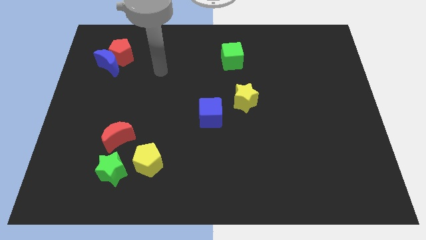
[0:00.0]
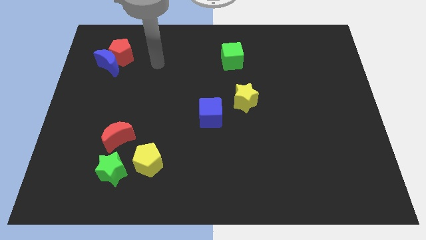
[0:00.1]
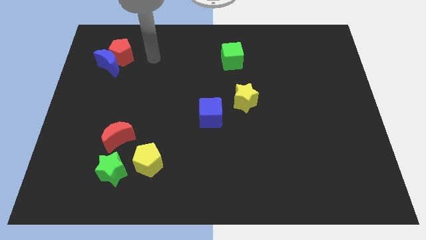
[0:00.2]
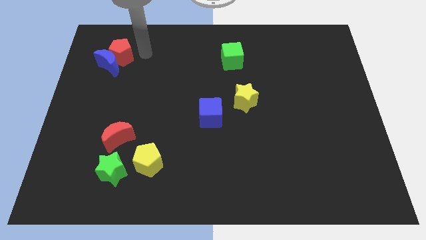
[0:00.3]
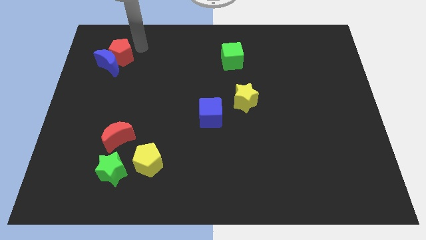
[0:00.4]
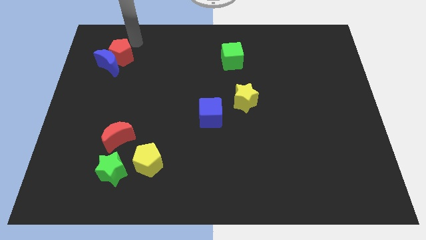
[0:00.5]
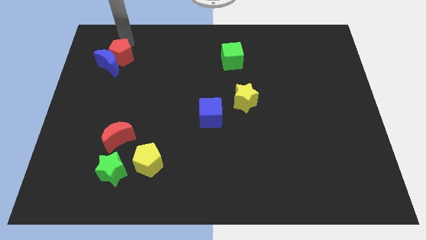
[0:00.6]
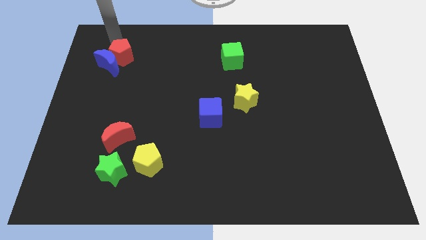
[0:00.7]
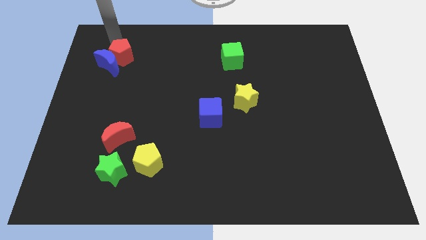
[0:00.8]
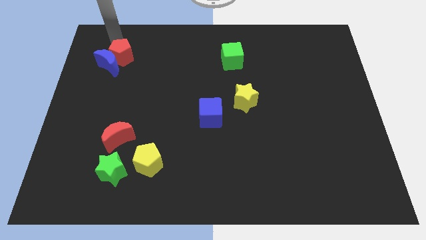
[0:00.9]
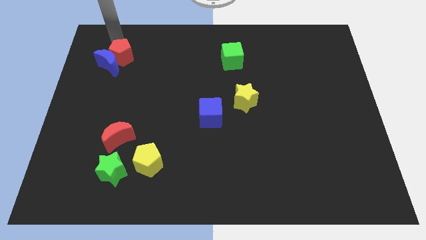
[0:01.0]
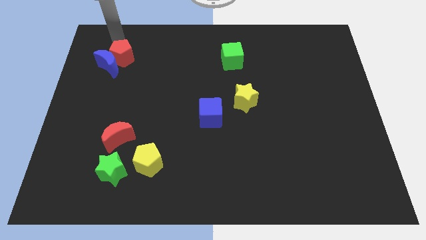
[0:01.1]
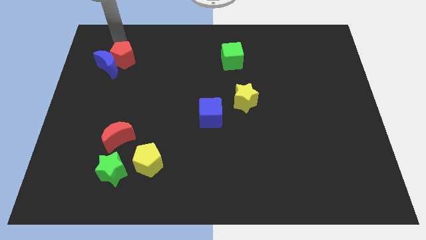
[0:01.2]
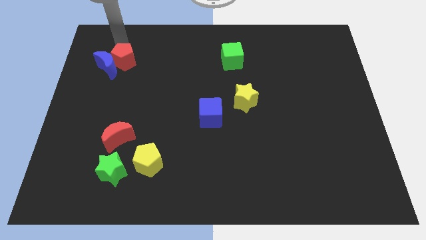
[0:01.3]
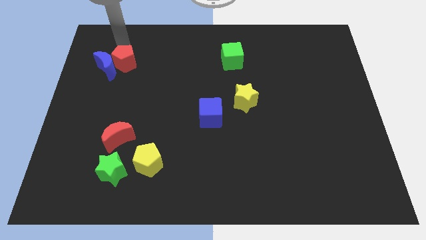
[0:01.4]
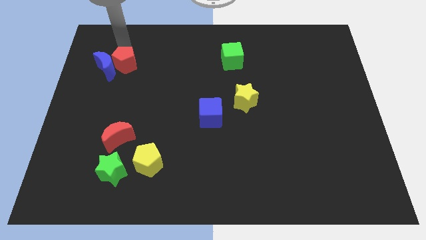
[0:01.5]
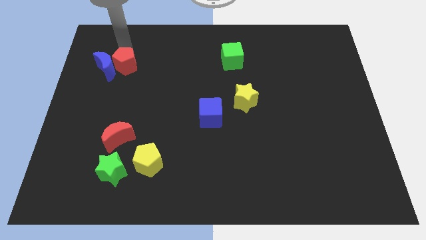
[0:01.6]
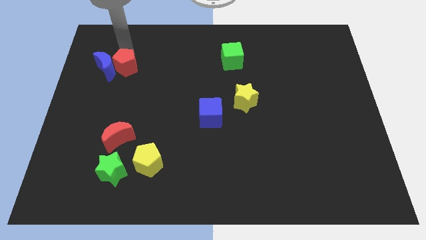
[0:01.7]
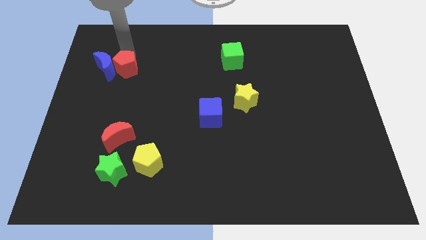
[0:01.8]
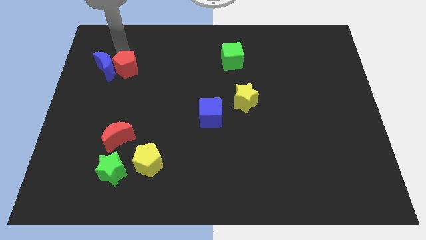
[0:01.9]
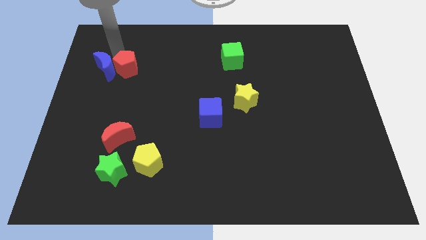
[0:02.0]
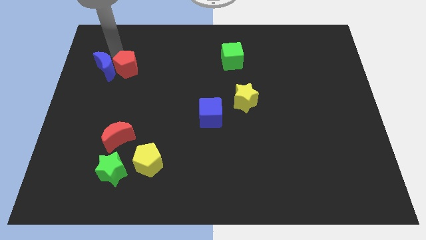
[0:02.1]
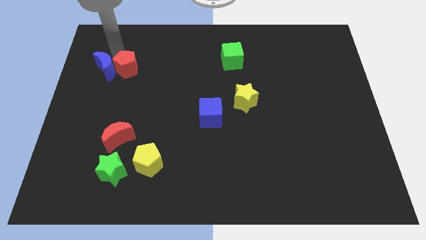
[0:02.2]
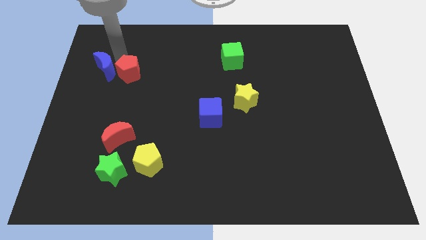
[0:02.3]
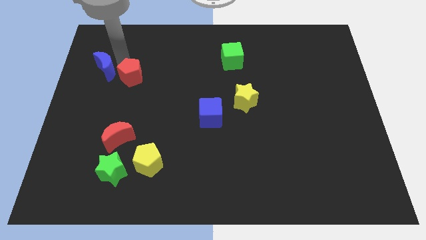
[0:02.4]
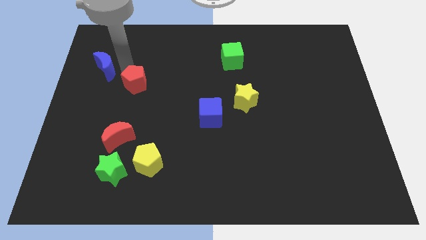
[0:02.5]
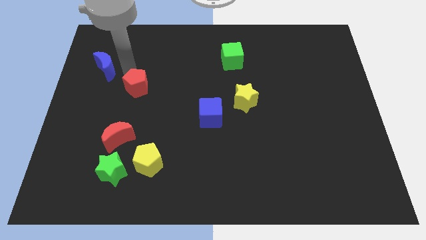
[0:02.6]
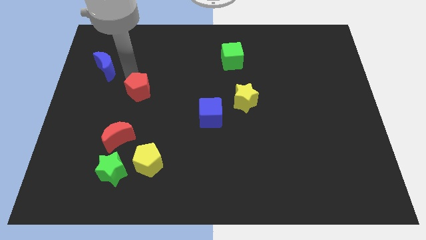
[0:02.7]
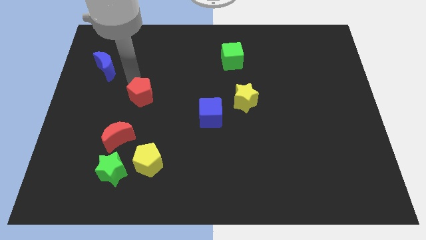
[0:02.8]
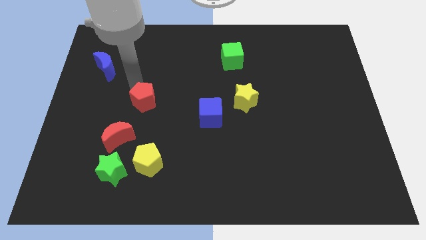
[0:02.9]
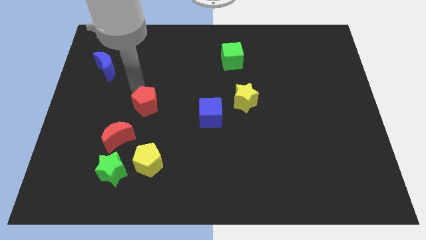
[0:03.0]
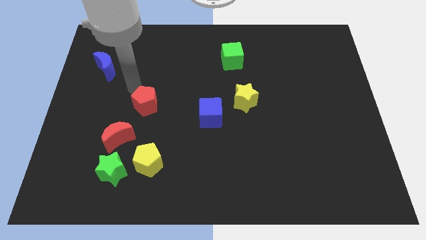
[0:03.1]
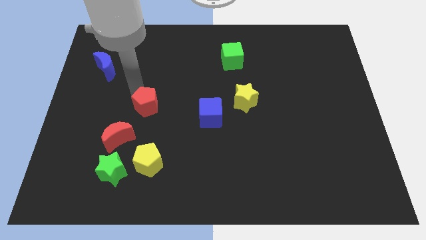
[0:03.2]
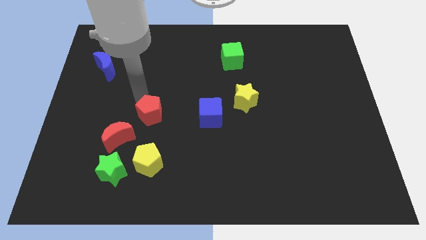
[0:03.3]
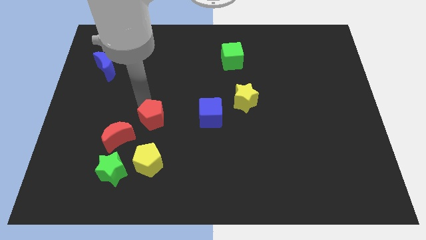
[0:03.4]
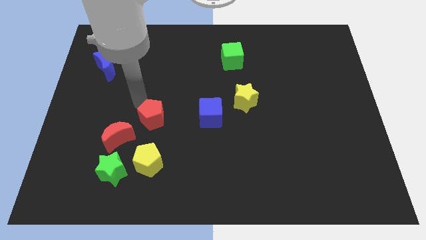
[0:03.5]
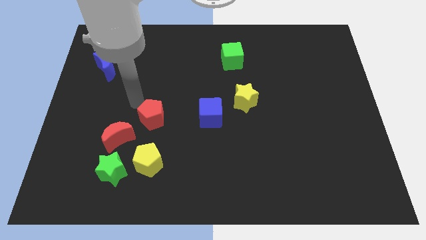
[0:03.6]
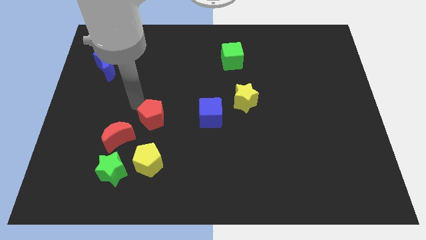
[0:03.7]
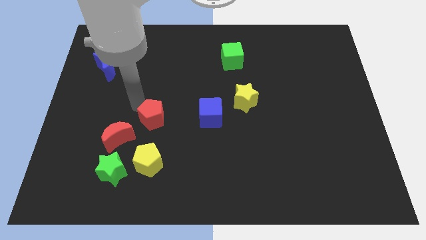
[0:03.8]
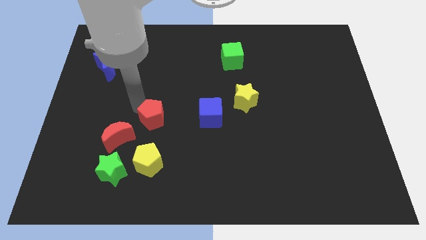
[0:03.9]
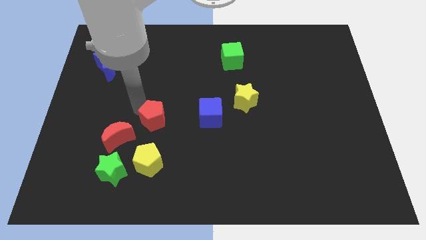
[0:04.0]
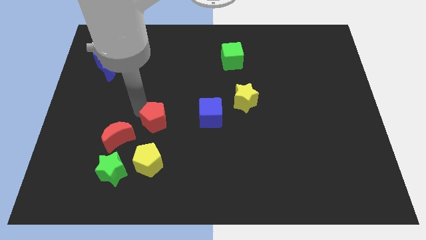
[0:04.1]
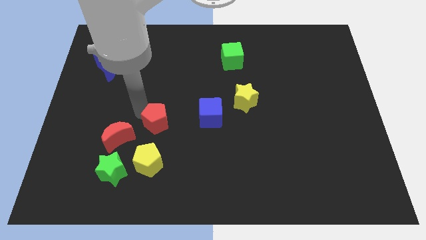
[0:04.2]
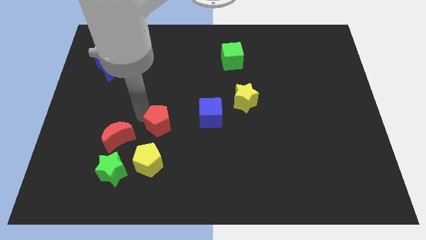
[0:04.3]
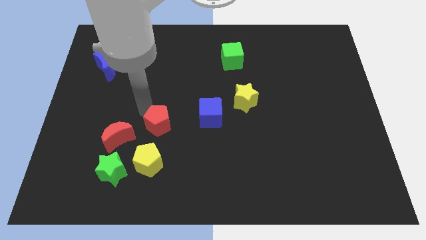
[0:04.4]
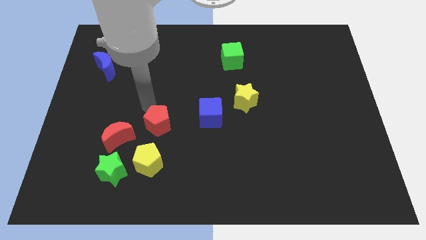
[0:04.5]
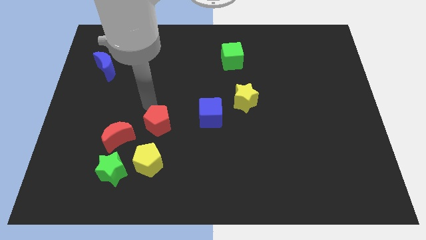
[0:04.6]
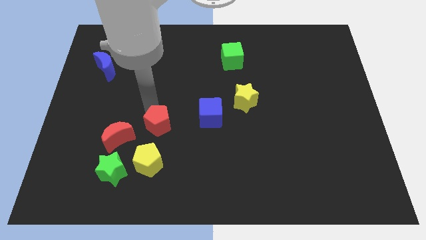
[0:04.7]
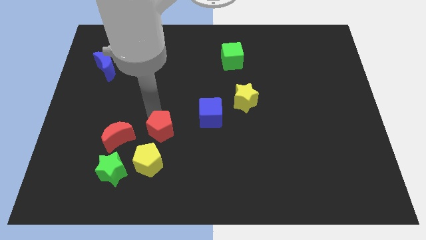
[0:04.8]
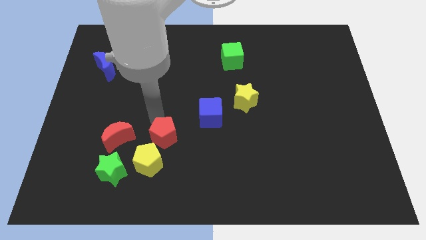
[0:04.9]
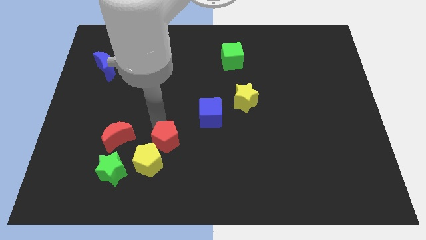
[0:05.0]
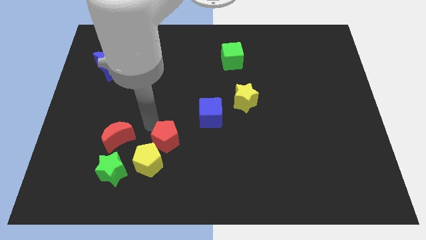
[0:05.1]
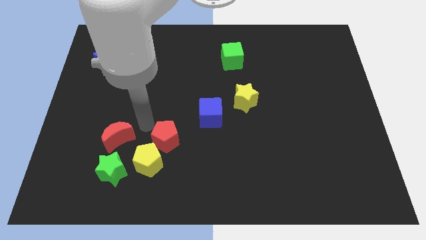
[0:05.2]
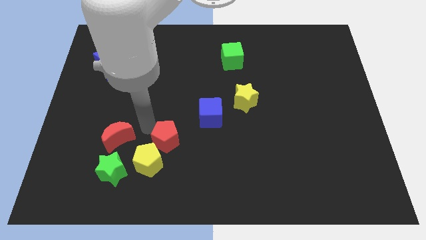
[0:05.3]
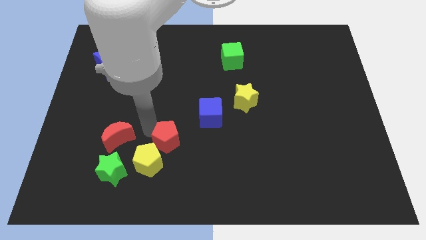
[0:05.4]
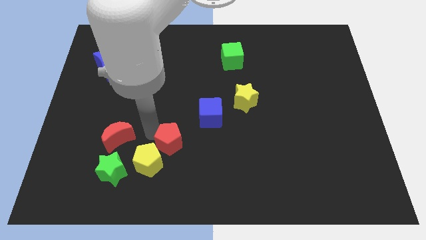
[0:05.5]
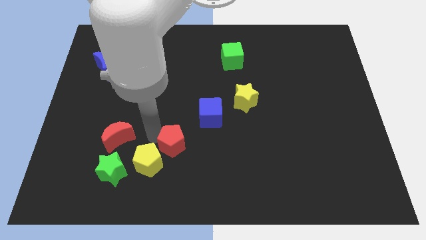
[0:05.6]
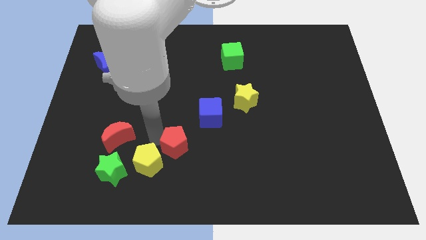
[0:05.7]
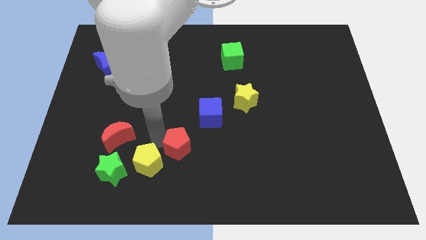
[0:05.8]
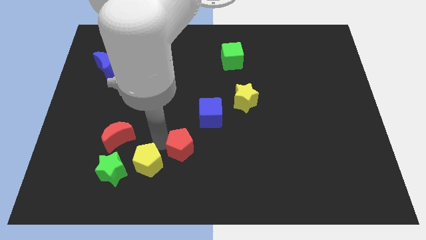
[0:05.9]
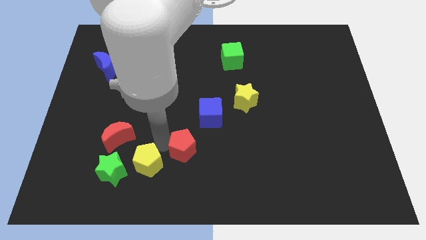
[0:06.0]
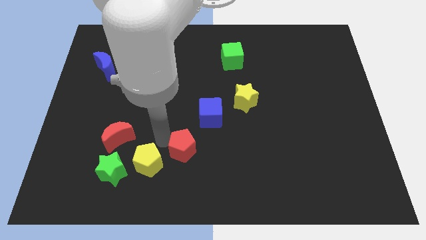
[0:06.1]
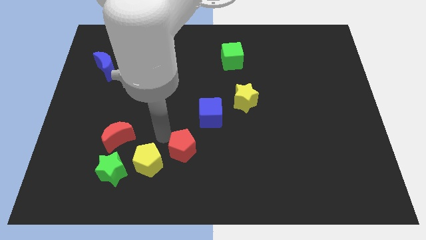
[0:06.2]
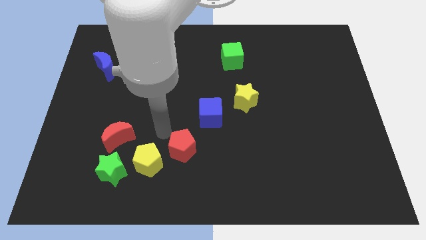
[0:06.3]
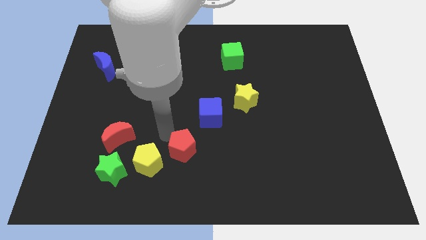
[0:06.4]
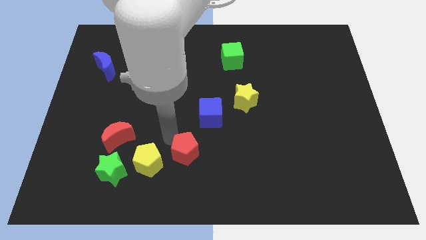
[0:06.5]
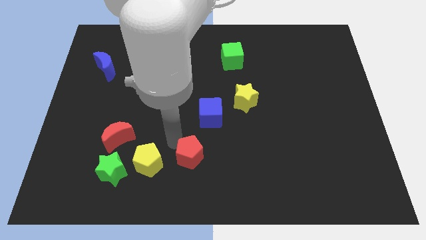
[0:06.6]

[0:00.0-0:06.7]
push the red pentagon to the bottom side
